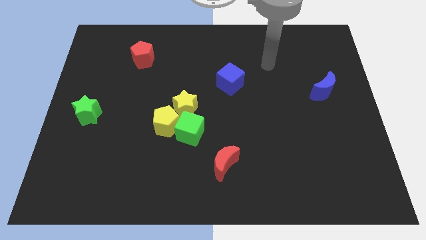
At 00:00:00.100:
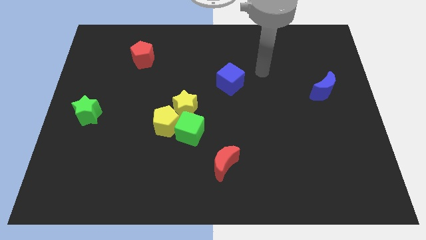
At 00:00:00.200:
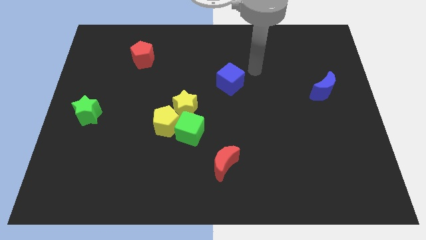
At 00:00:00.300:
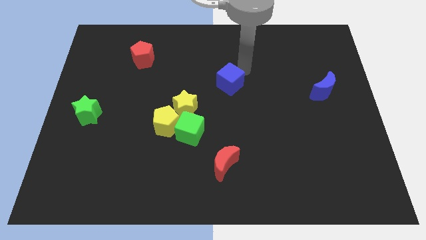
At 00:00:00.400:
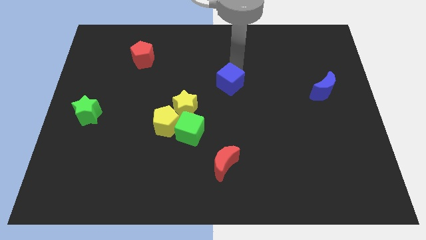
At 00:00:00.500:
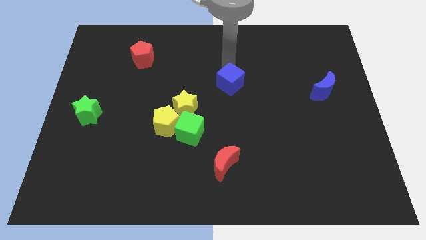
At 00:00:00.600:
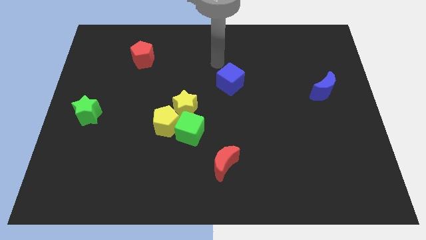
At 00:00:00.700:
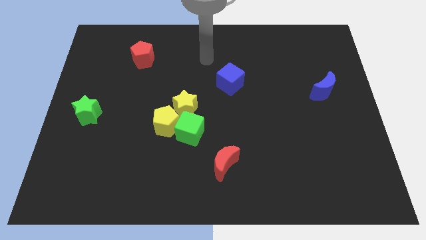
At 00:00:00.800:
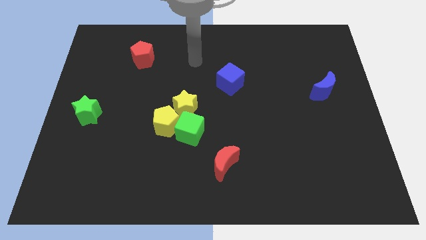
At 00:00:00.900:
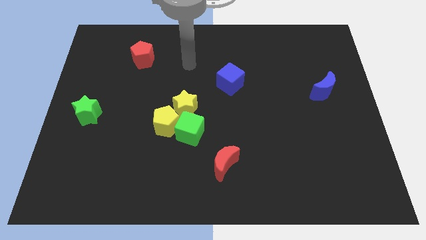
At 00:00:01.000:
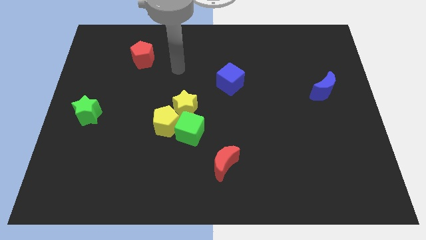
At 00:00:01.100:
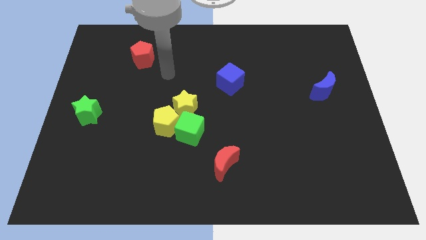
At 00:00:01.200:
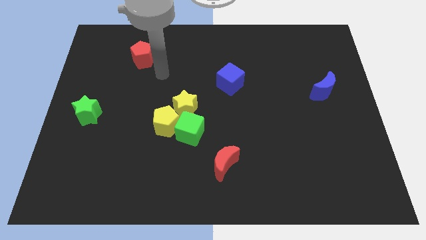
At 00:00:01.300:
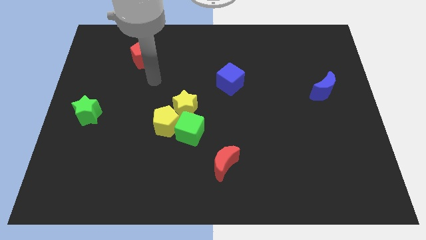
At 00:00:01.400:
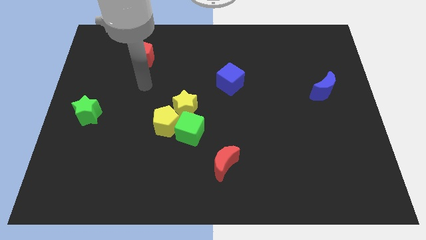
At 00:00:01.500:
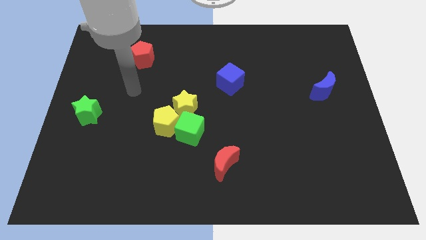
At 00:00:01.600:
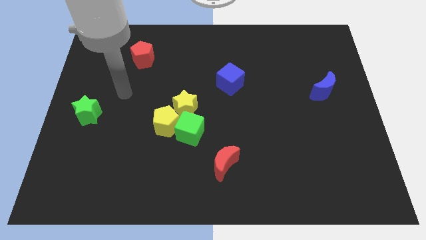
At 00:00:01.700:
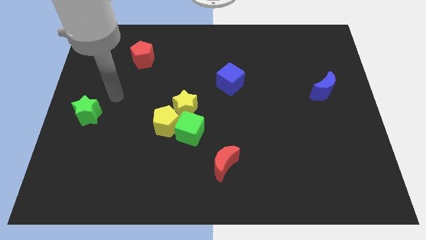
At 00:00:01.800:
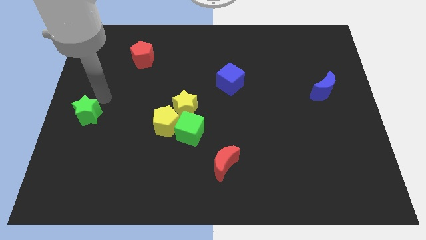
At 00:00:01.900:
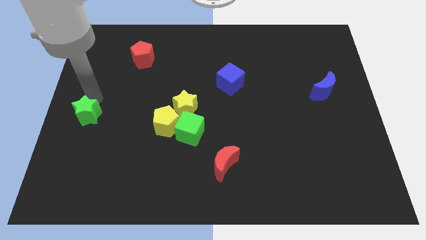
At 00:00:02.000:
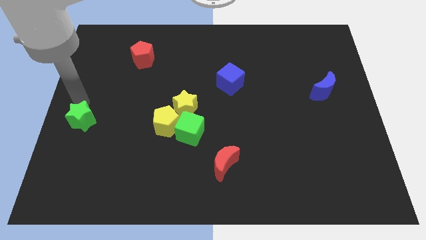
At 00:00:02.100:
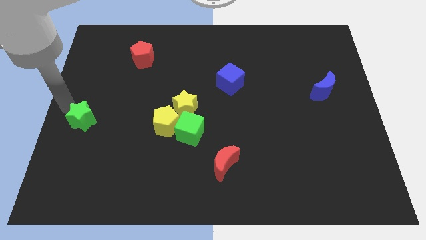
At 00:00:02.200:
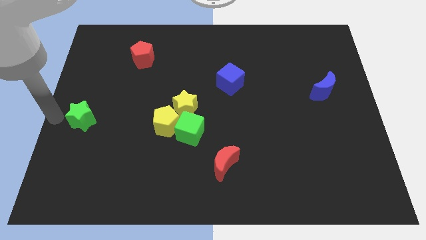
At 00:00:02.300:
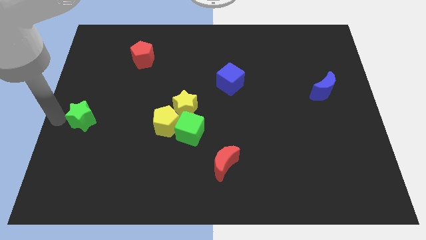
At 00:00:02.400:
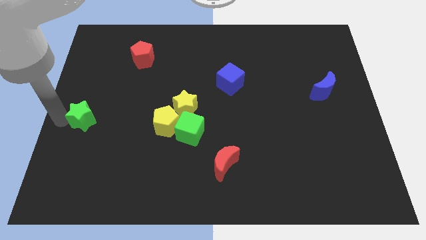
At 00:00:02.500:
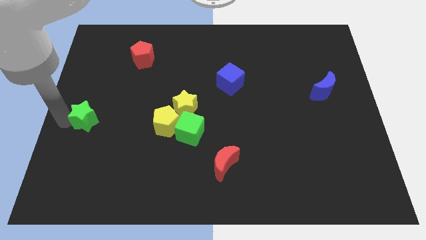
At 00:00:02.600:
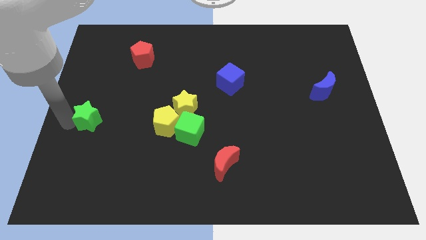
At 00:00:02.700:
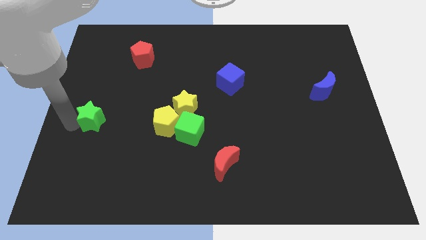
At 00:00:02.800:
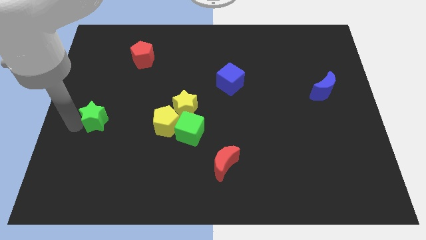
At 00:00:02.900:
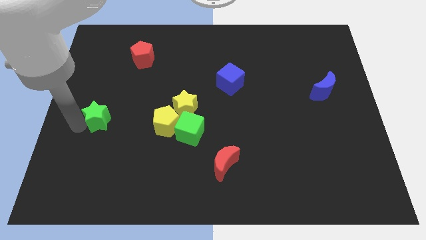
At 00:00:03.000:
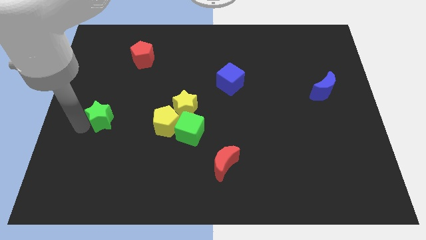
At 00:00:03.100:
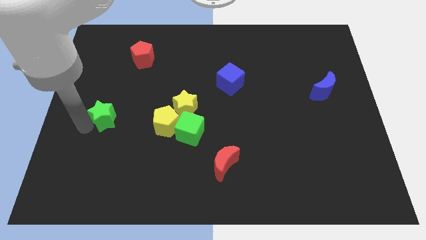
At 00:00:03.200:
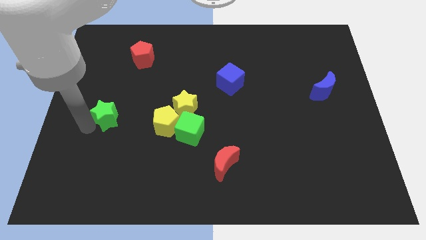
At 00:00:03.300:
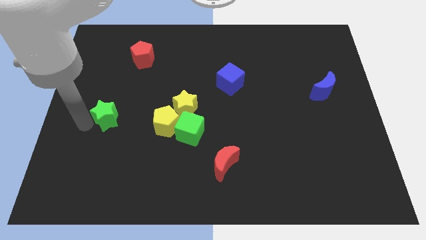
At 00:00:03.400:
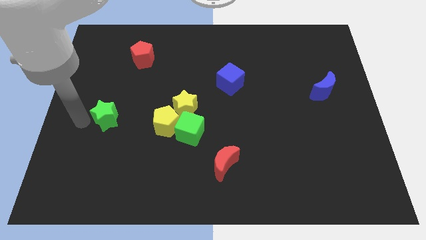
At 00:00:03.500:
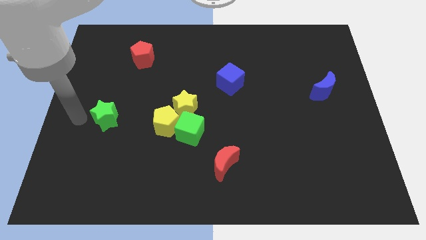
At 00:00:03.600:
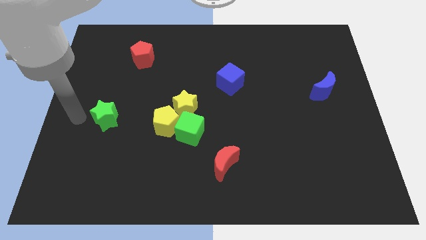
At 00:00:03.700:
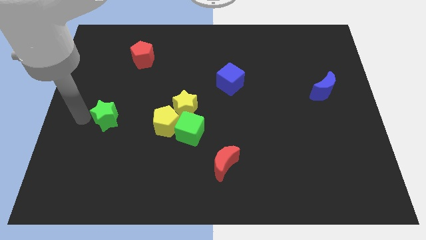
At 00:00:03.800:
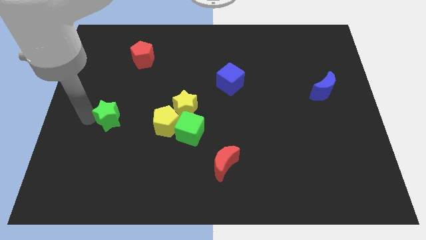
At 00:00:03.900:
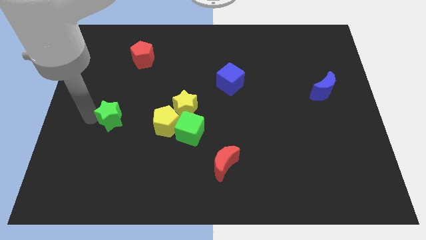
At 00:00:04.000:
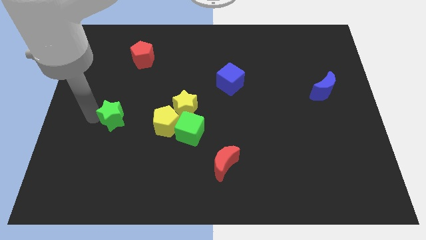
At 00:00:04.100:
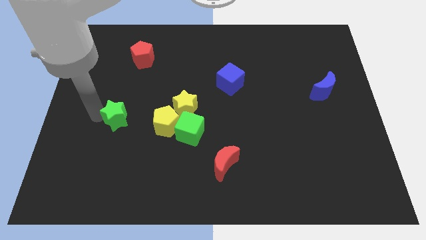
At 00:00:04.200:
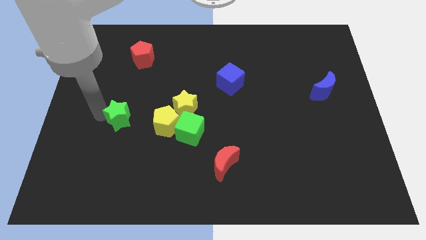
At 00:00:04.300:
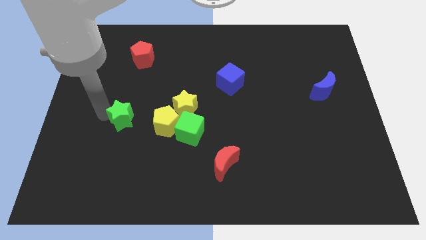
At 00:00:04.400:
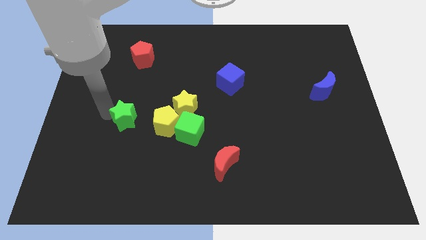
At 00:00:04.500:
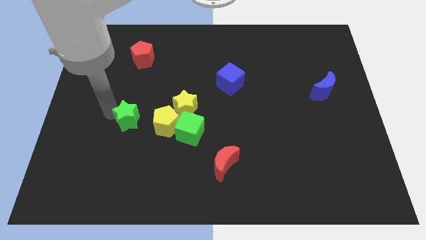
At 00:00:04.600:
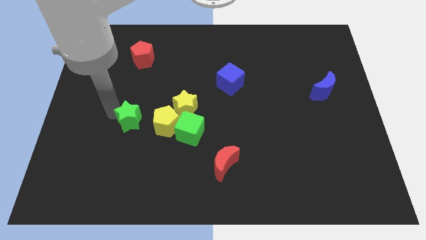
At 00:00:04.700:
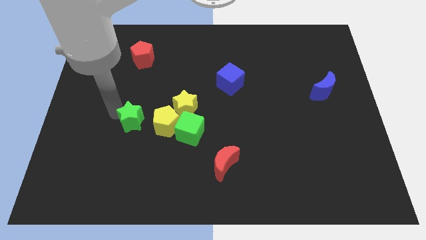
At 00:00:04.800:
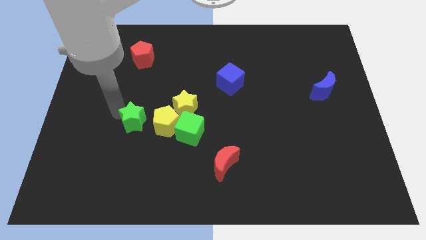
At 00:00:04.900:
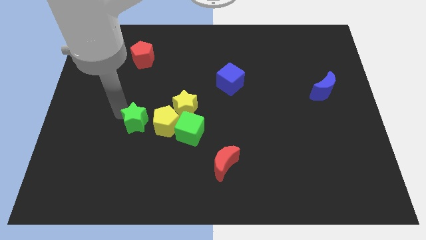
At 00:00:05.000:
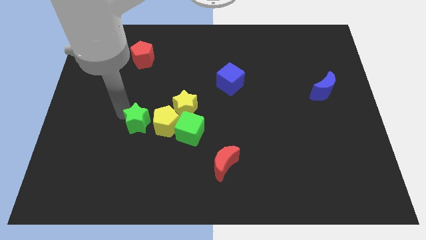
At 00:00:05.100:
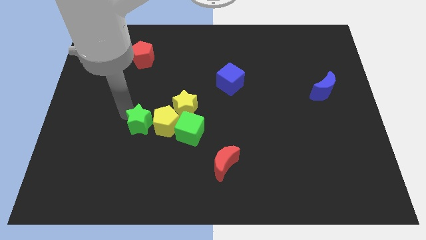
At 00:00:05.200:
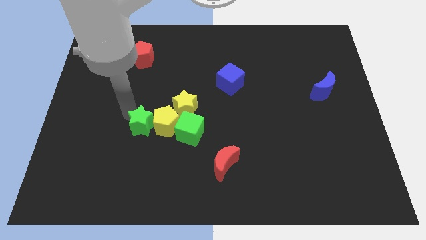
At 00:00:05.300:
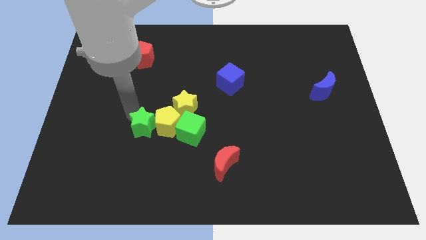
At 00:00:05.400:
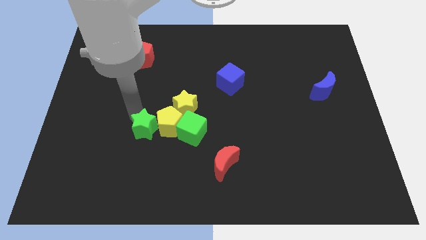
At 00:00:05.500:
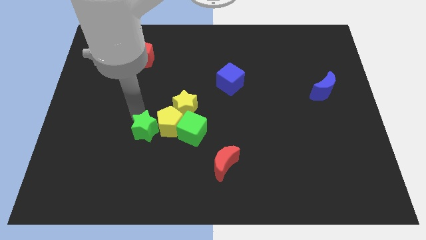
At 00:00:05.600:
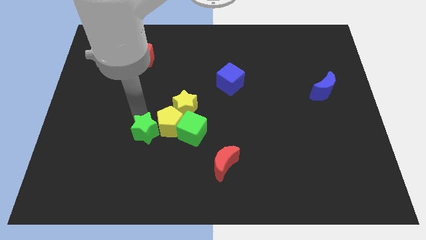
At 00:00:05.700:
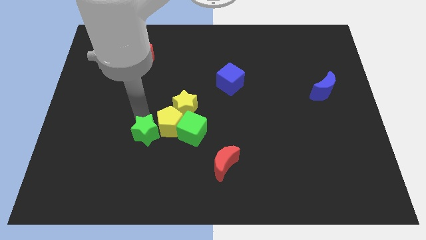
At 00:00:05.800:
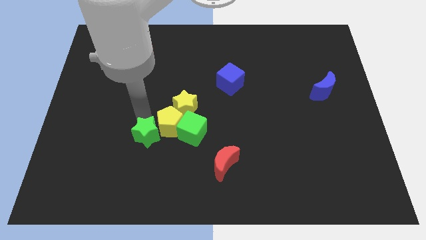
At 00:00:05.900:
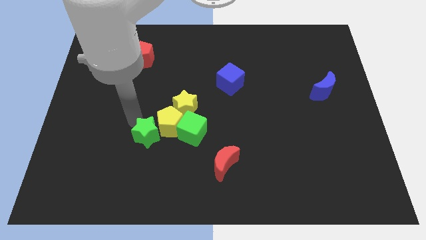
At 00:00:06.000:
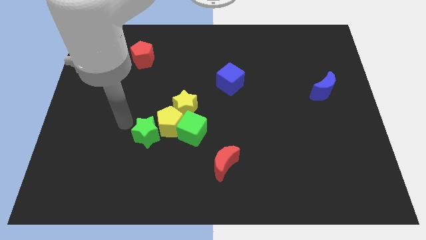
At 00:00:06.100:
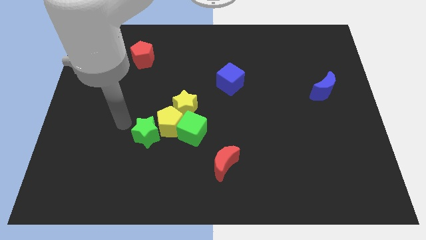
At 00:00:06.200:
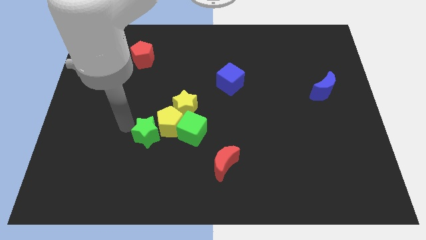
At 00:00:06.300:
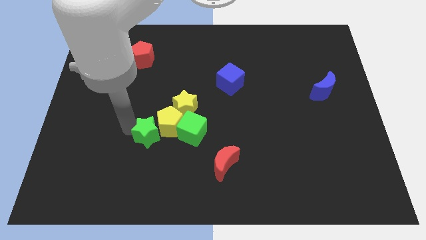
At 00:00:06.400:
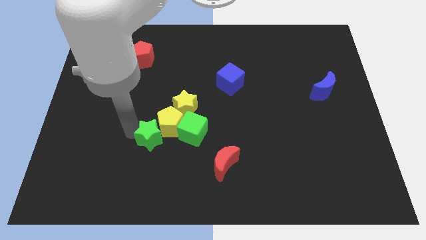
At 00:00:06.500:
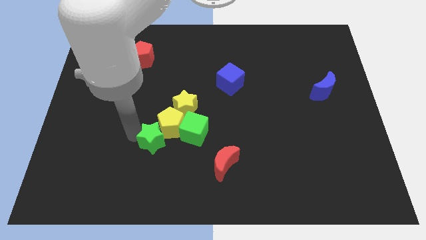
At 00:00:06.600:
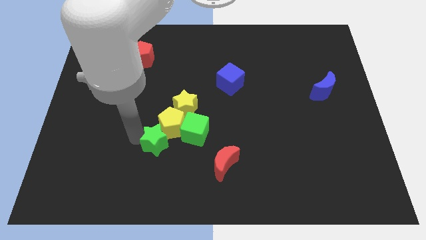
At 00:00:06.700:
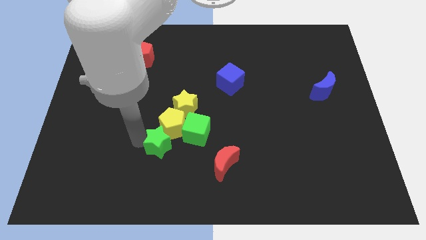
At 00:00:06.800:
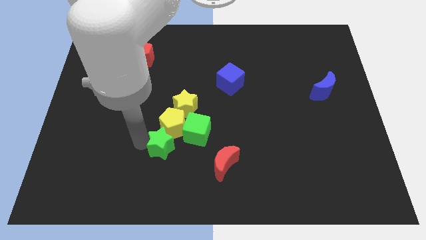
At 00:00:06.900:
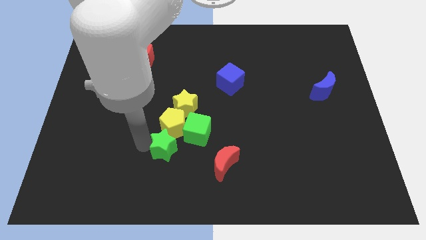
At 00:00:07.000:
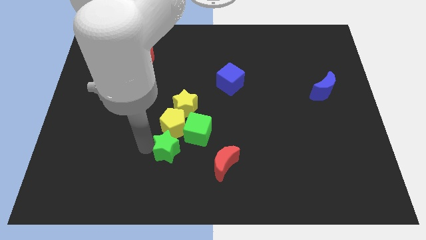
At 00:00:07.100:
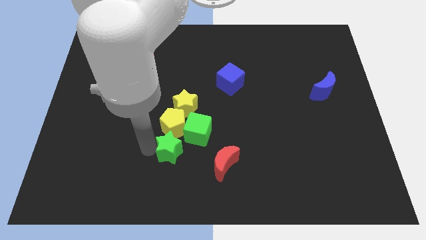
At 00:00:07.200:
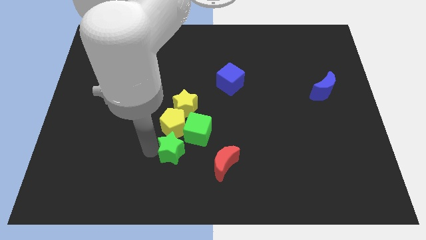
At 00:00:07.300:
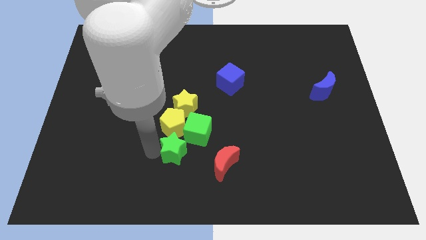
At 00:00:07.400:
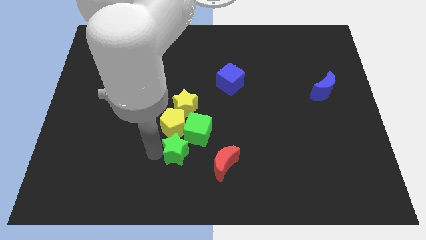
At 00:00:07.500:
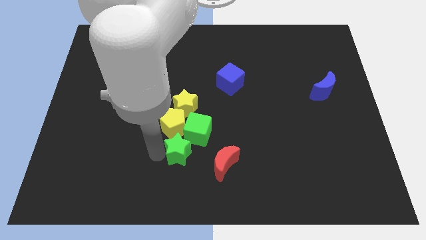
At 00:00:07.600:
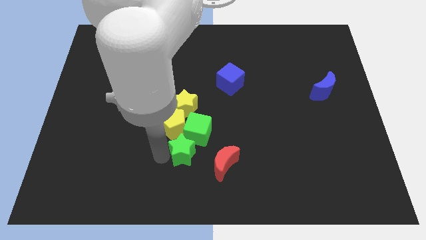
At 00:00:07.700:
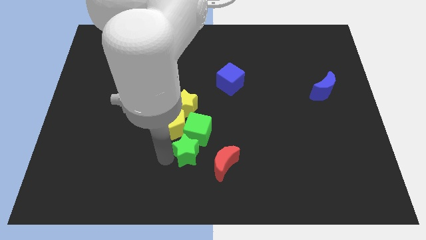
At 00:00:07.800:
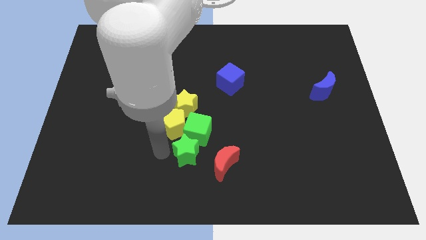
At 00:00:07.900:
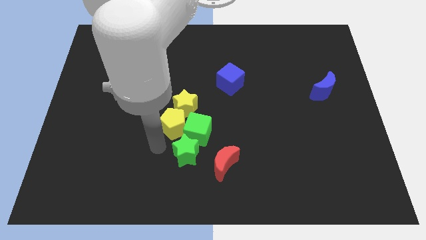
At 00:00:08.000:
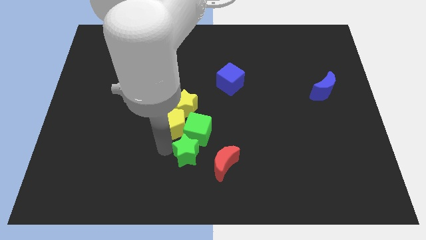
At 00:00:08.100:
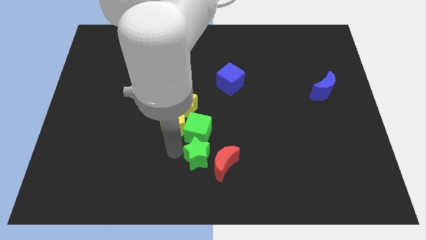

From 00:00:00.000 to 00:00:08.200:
slide the green star to the red moon
